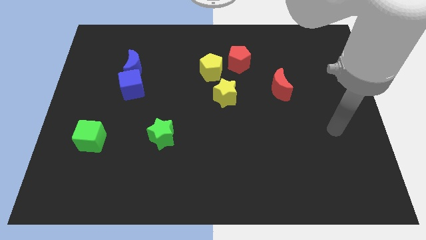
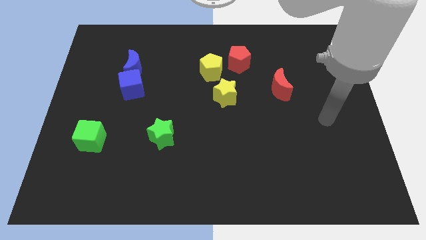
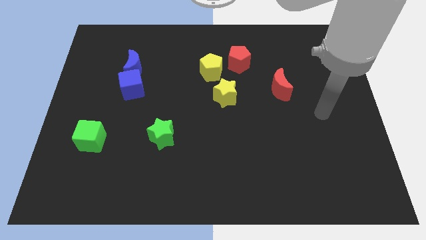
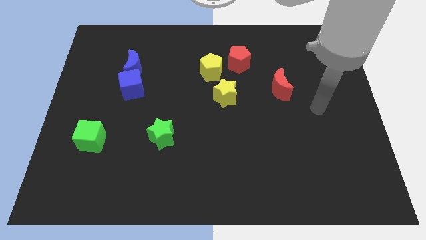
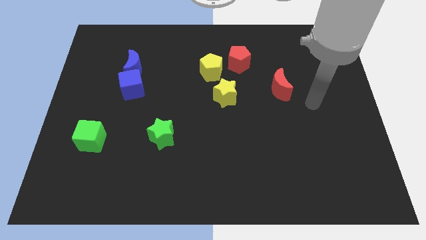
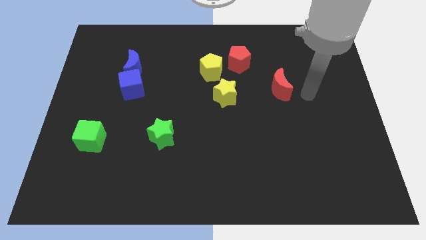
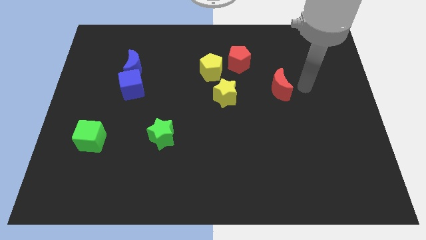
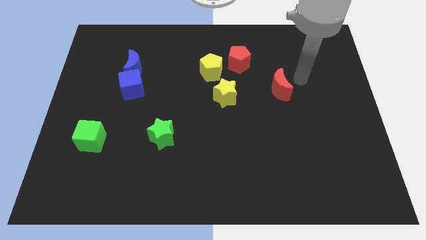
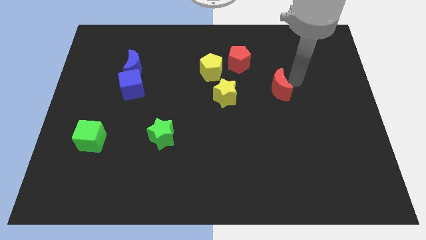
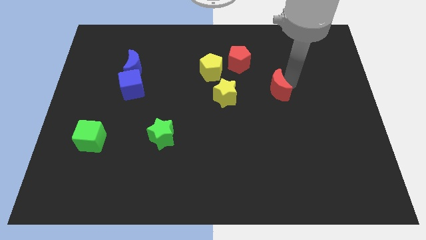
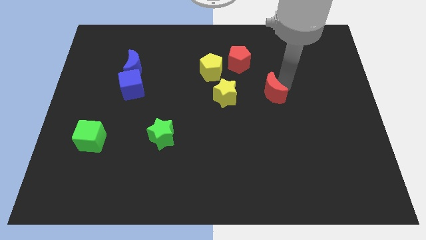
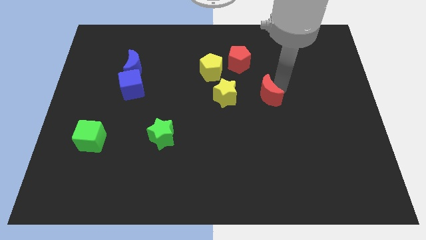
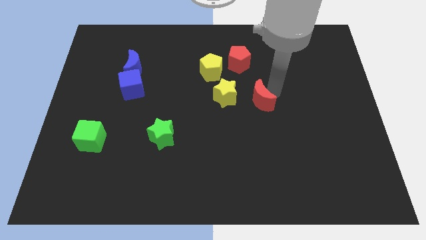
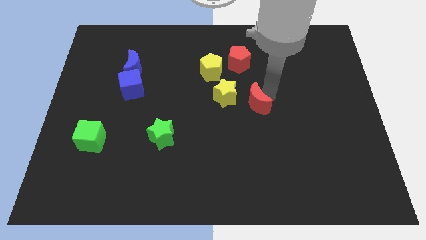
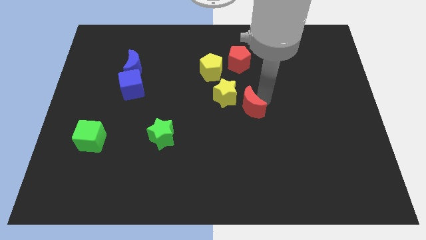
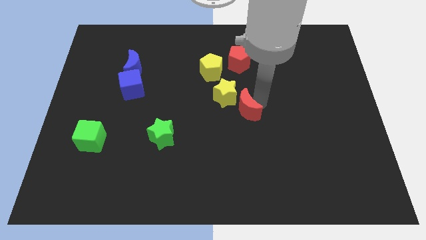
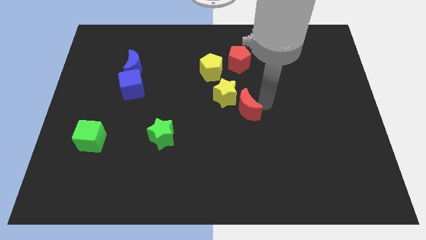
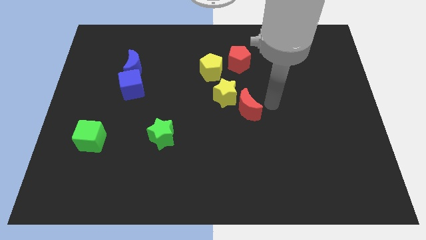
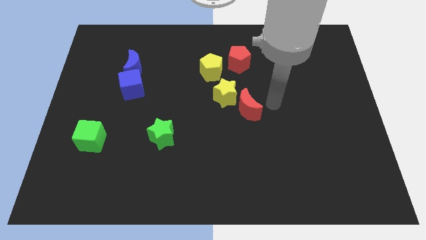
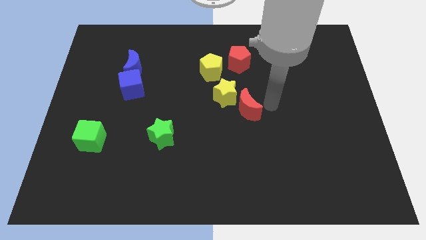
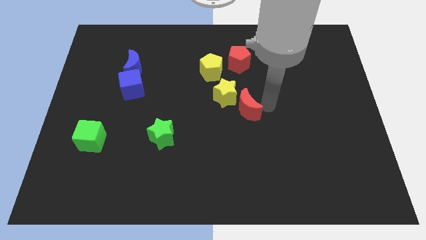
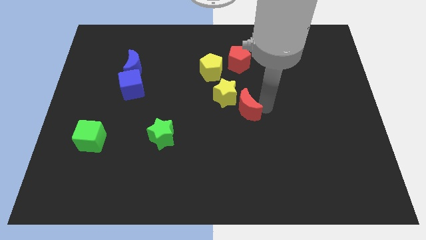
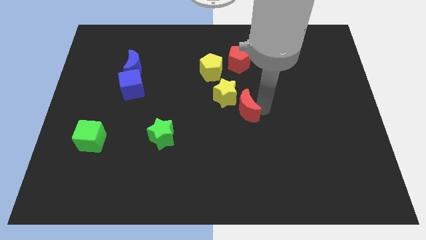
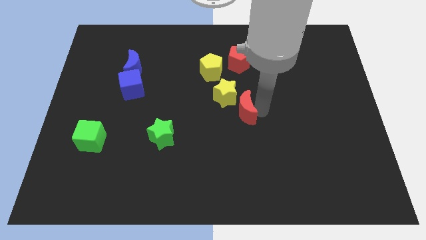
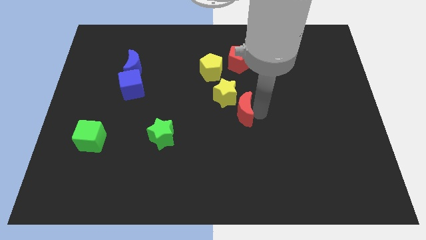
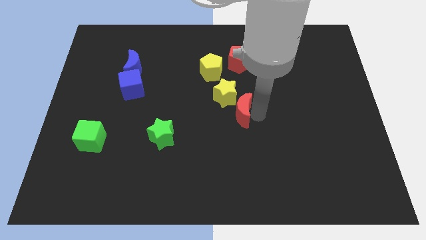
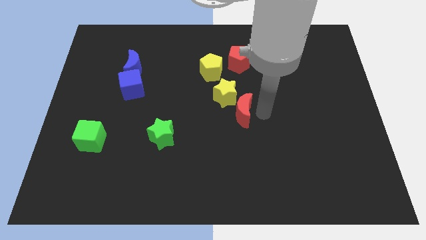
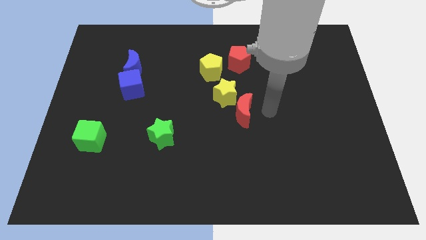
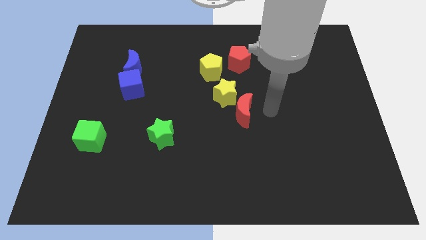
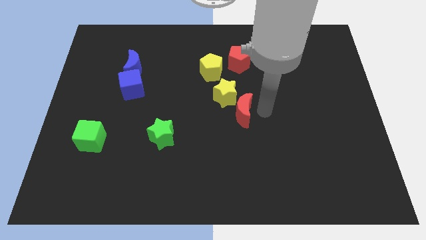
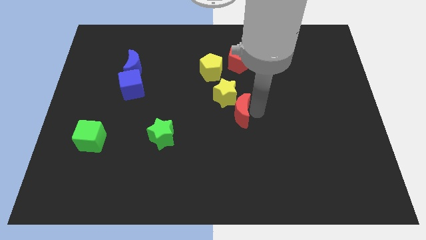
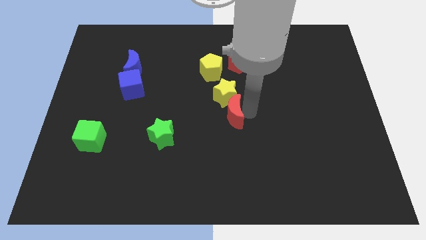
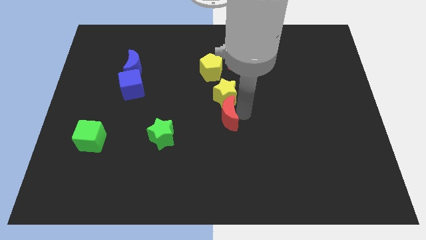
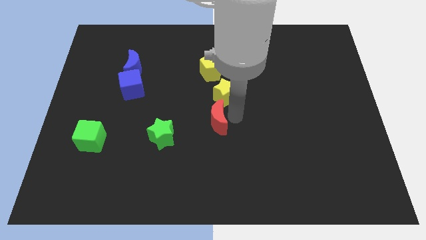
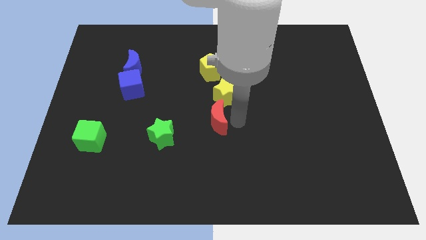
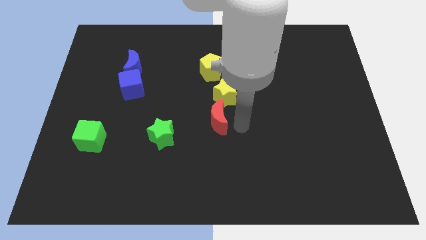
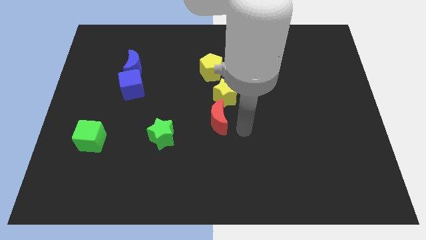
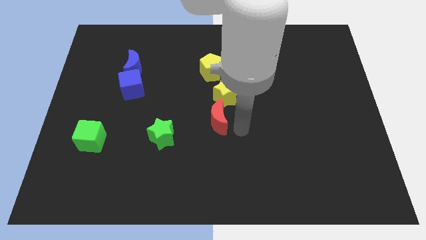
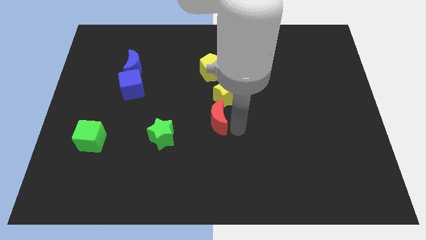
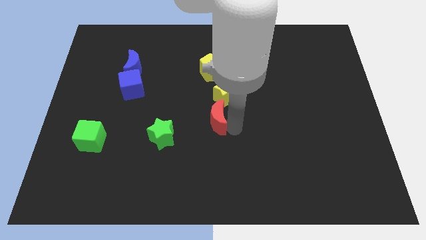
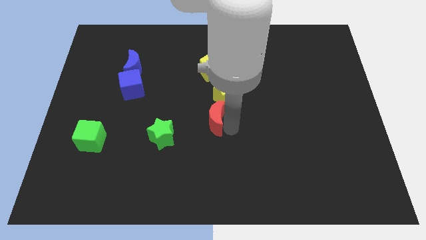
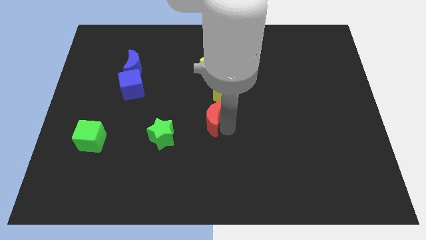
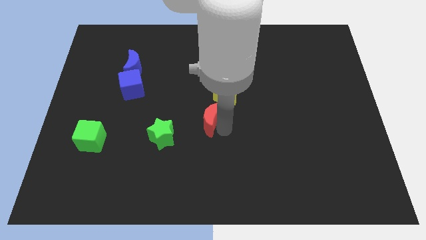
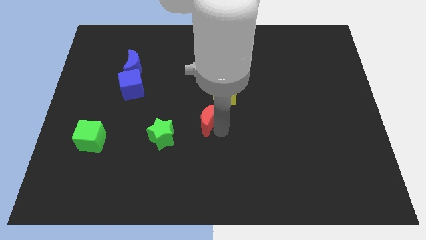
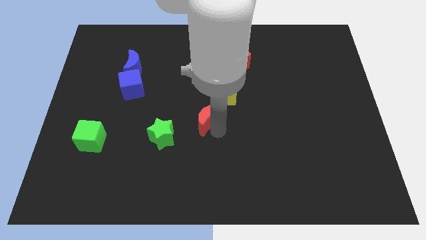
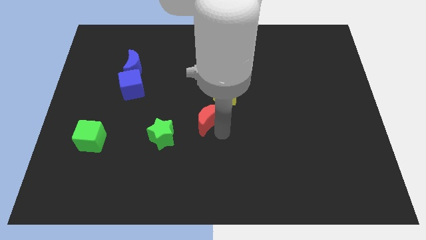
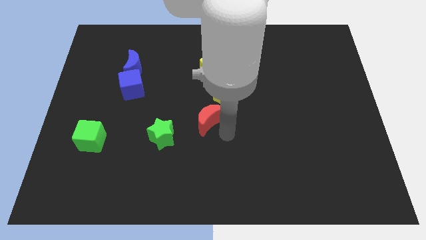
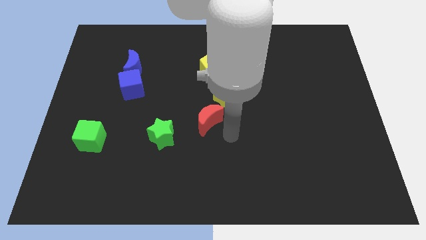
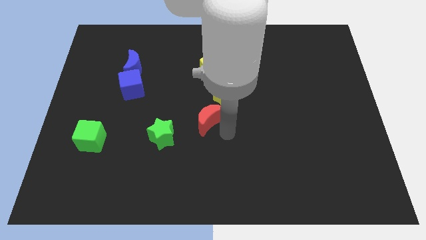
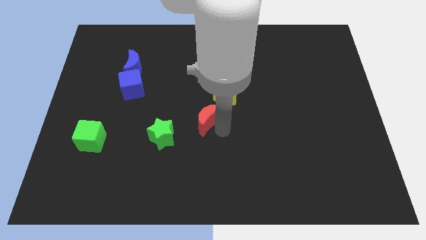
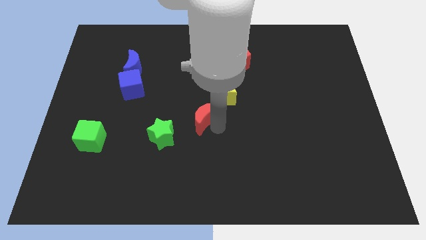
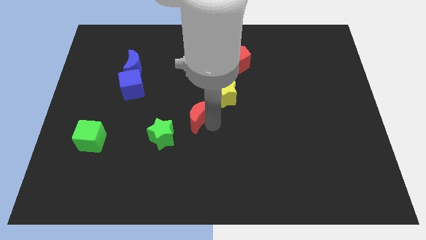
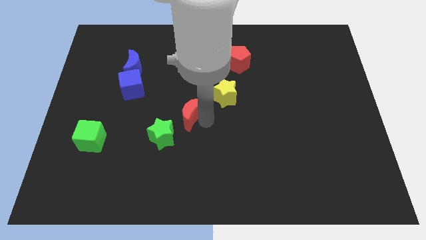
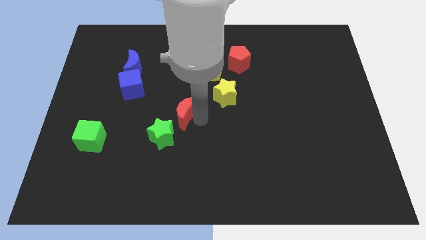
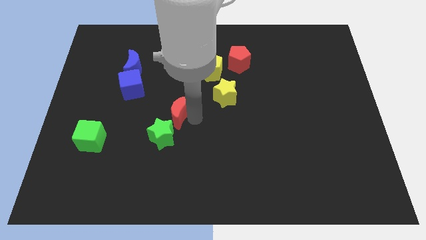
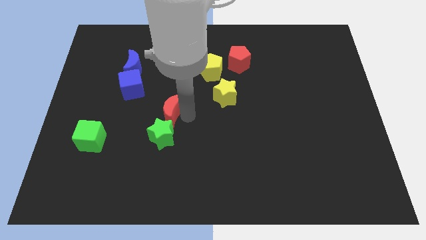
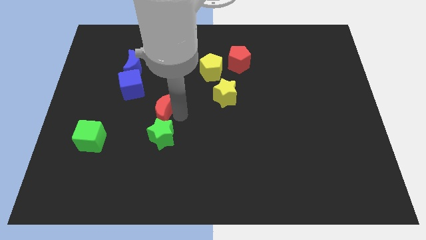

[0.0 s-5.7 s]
put the red moon to the bottom right of the blue cube

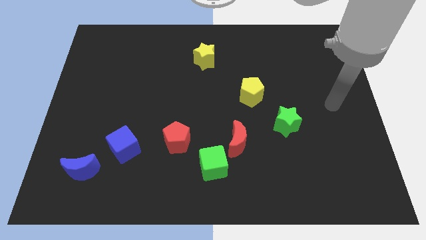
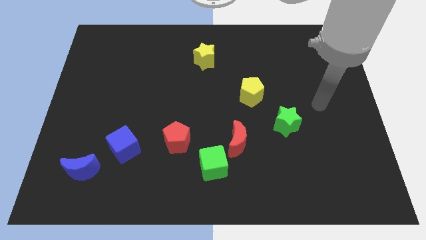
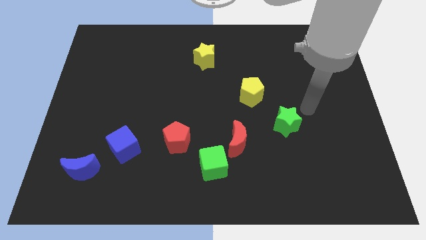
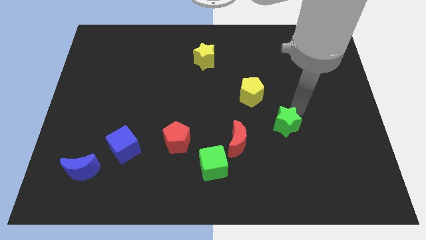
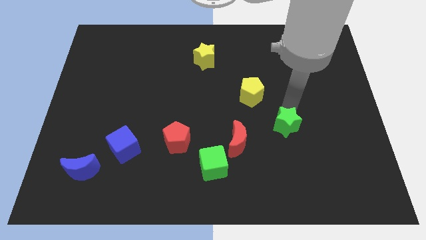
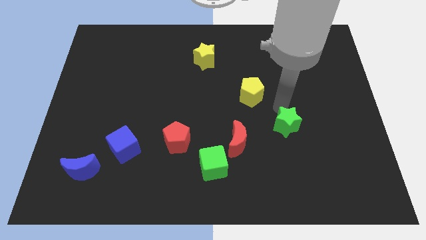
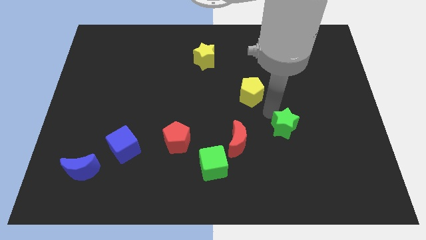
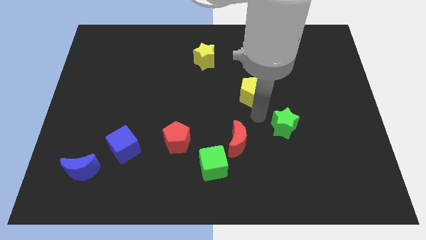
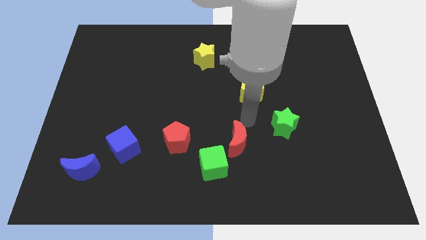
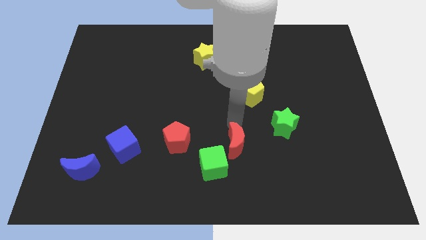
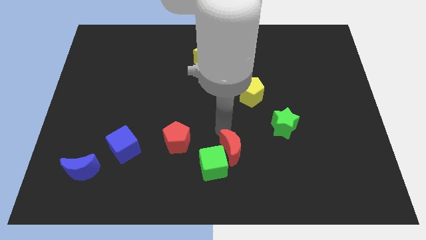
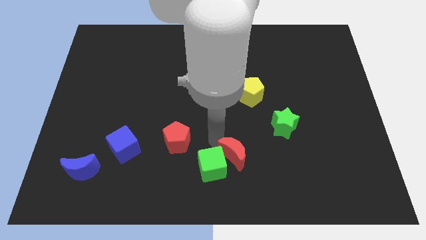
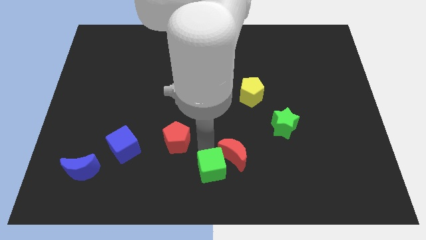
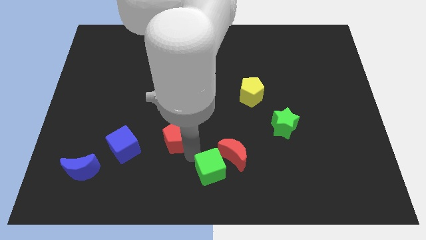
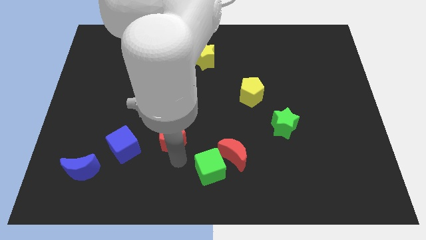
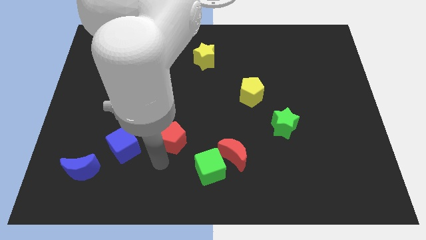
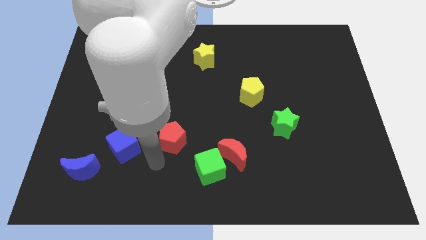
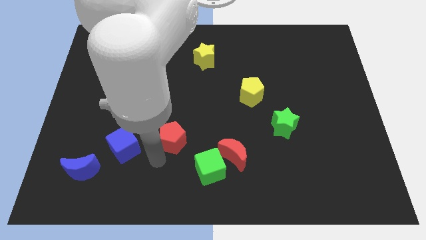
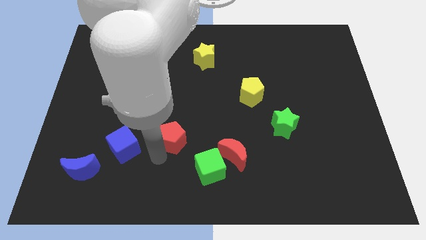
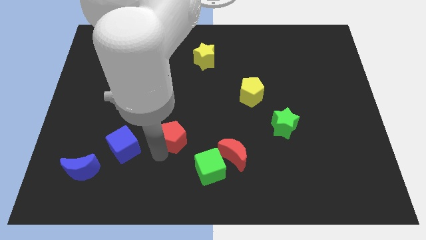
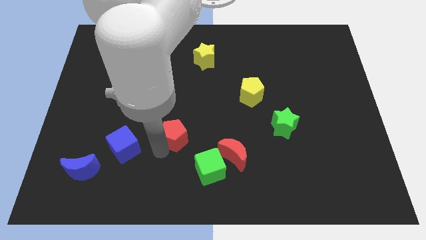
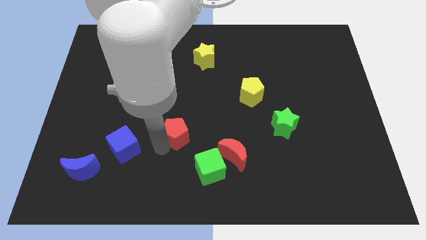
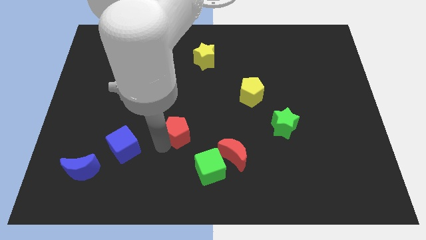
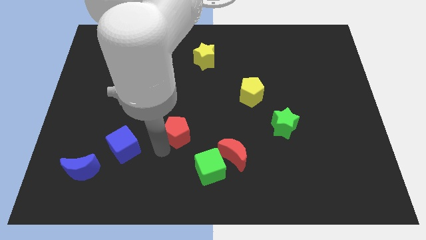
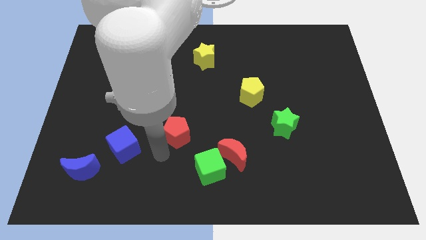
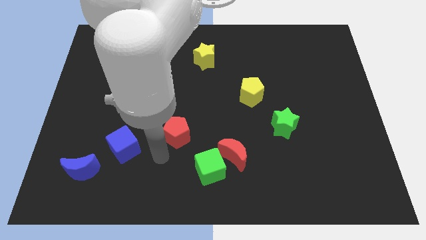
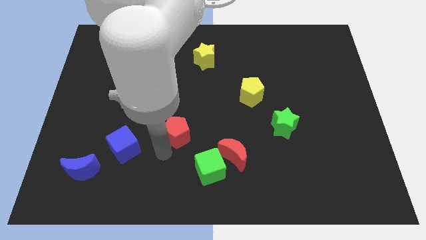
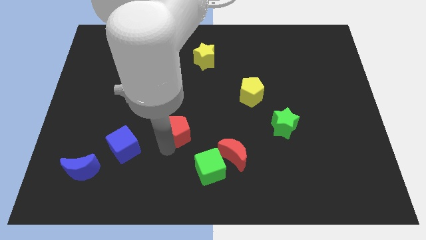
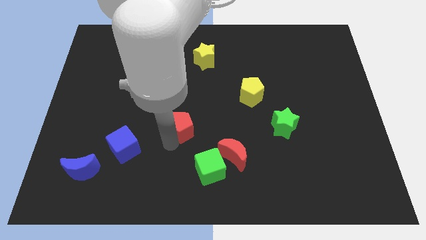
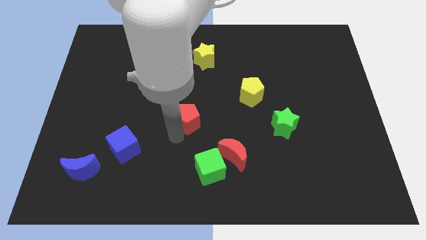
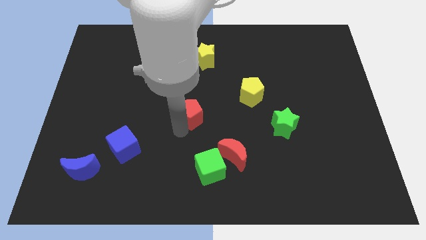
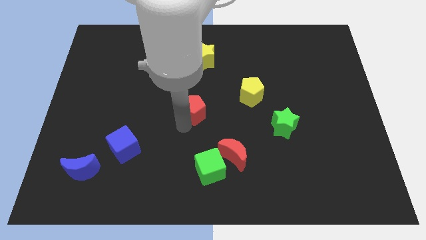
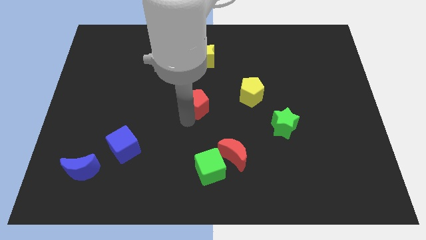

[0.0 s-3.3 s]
push the red pentagon to the left of the yellow pentagon
